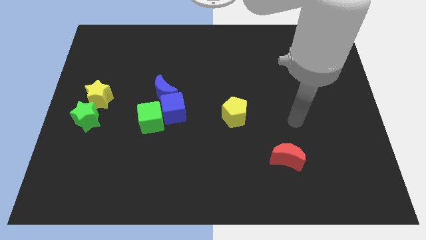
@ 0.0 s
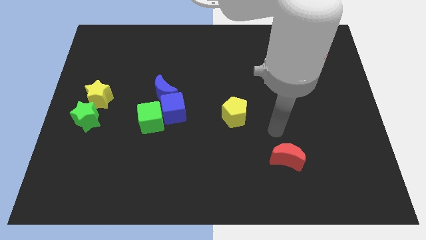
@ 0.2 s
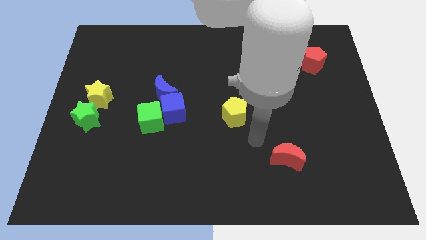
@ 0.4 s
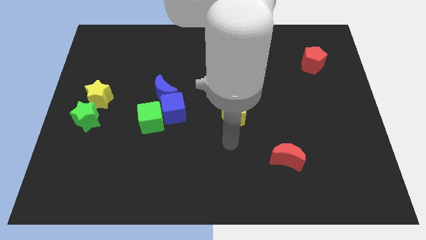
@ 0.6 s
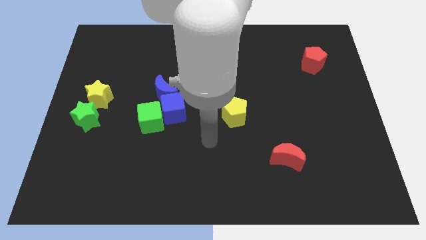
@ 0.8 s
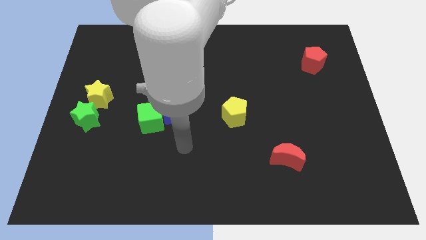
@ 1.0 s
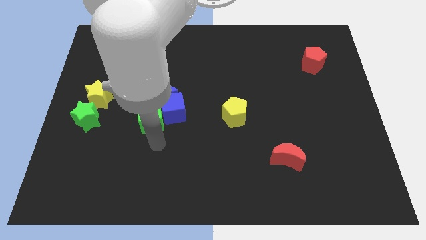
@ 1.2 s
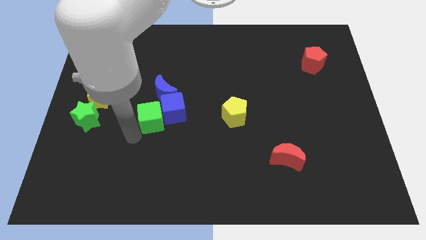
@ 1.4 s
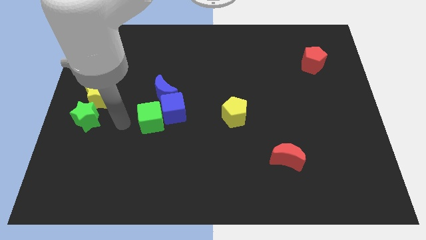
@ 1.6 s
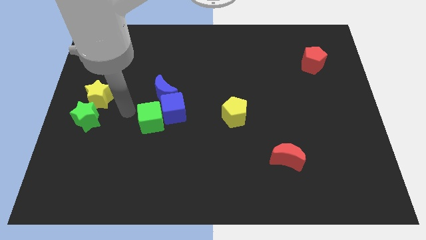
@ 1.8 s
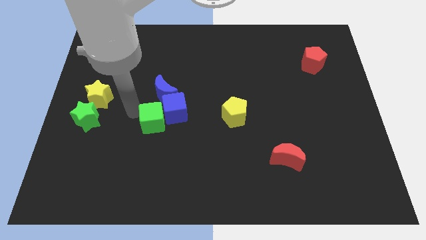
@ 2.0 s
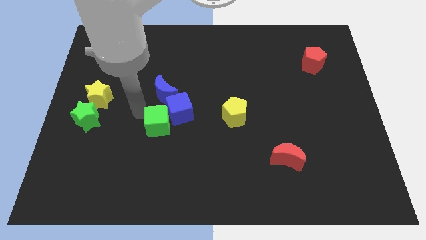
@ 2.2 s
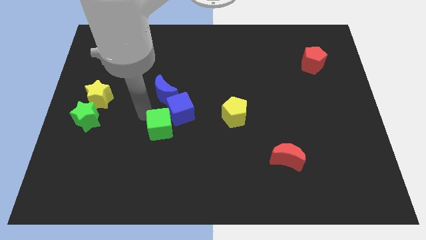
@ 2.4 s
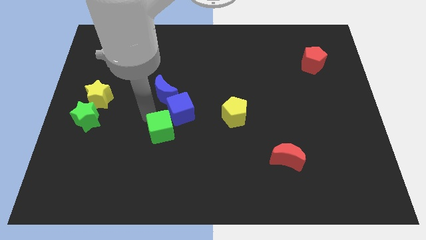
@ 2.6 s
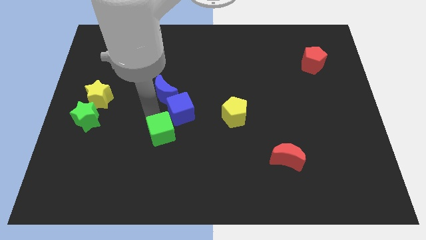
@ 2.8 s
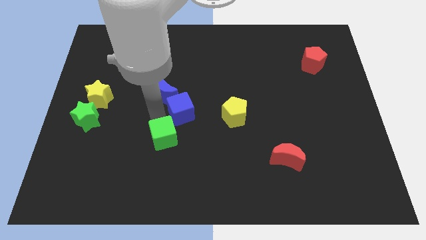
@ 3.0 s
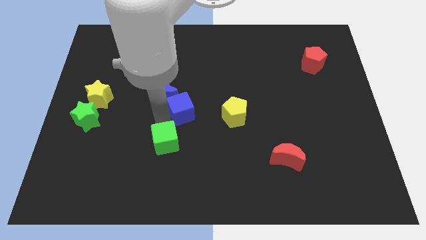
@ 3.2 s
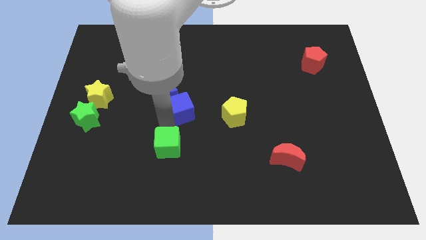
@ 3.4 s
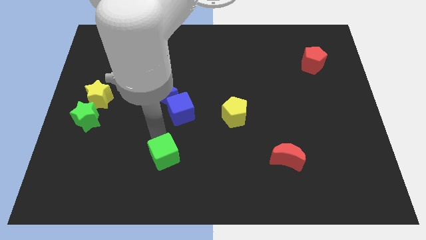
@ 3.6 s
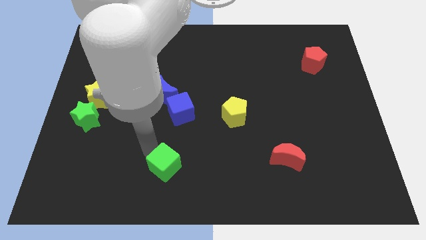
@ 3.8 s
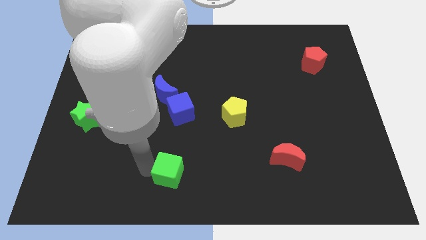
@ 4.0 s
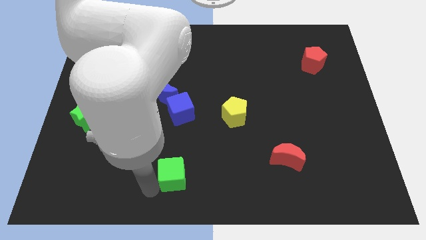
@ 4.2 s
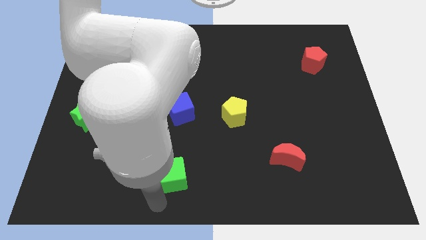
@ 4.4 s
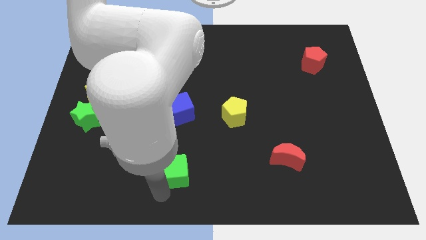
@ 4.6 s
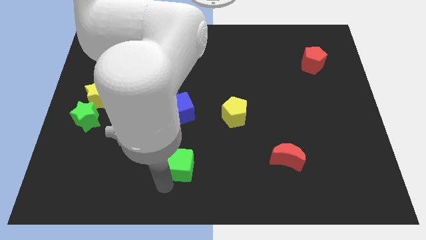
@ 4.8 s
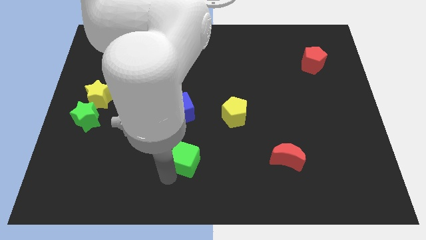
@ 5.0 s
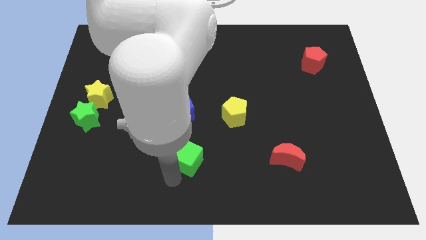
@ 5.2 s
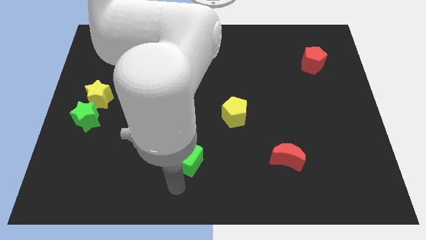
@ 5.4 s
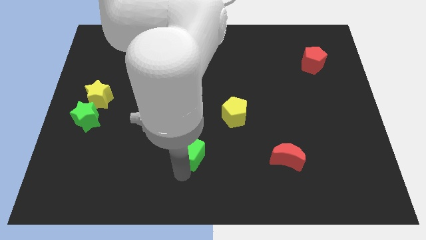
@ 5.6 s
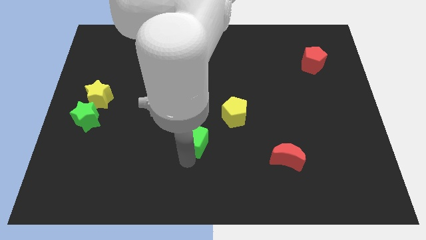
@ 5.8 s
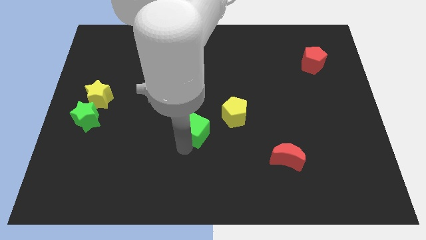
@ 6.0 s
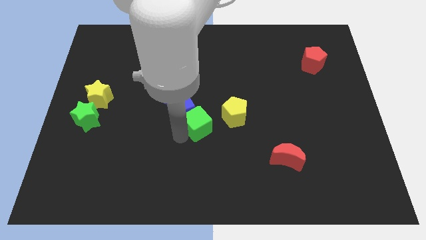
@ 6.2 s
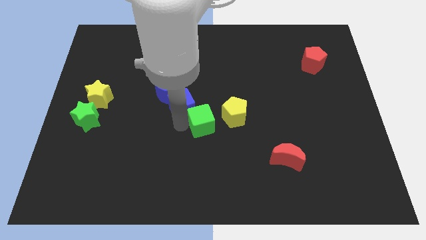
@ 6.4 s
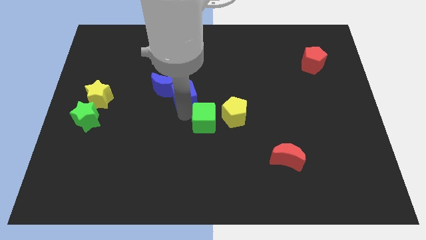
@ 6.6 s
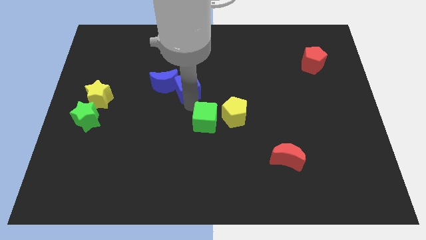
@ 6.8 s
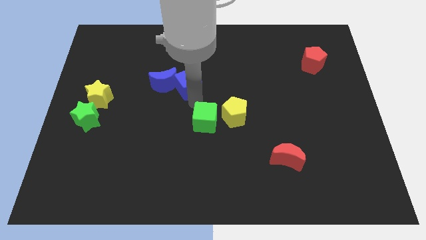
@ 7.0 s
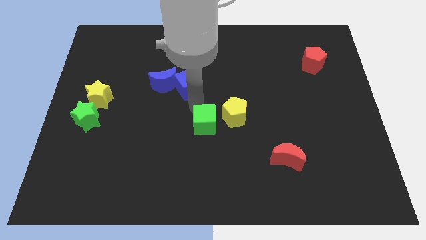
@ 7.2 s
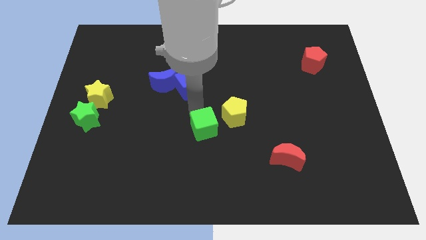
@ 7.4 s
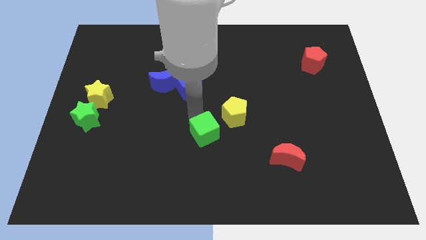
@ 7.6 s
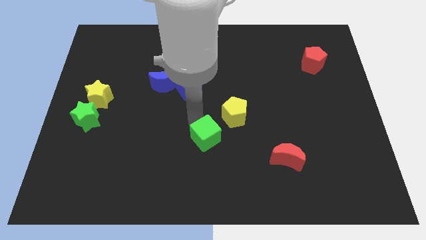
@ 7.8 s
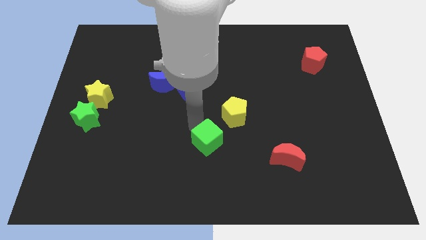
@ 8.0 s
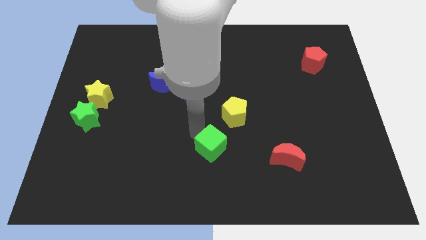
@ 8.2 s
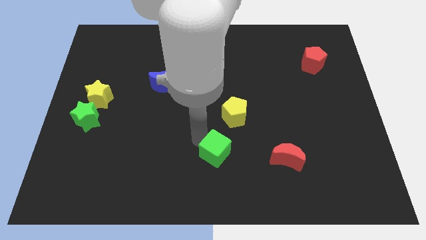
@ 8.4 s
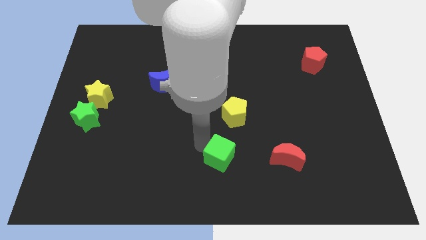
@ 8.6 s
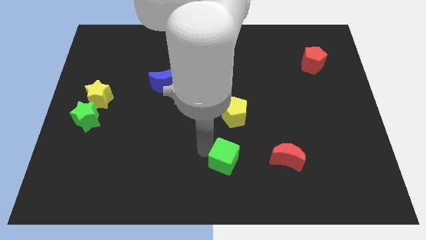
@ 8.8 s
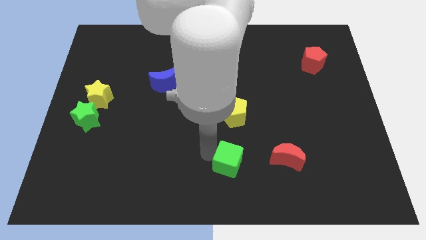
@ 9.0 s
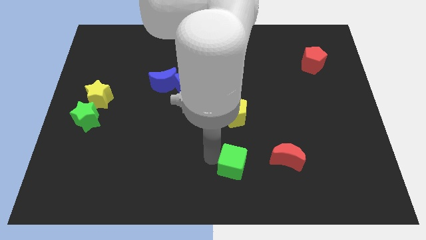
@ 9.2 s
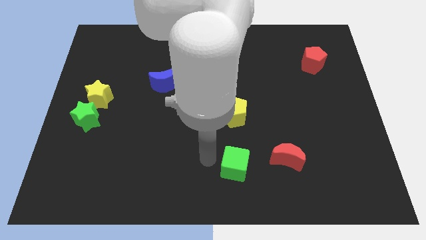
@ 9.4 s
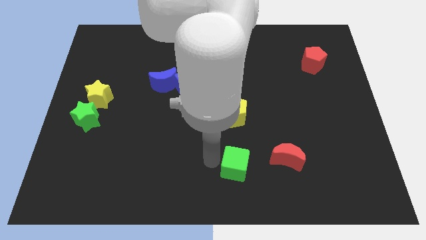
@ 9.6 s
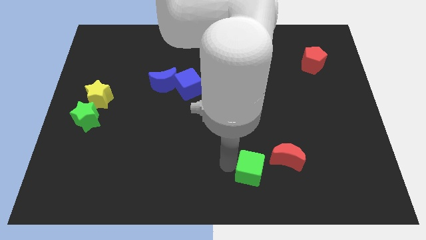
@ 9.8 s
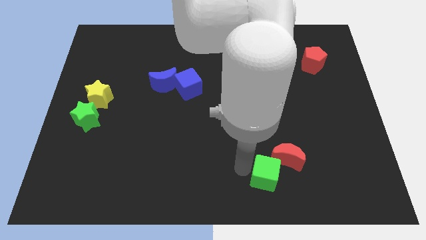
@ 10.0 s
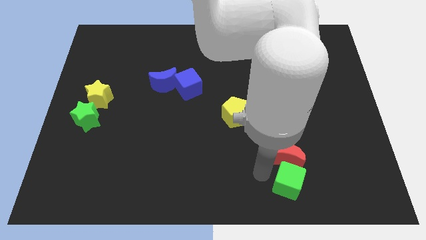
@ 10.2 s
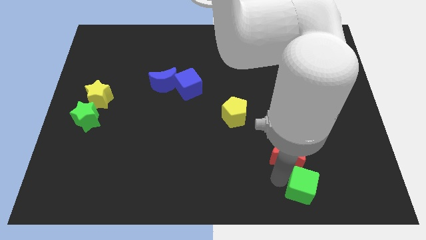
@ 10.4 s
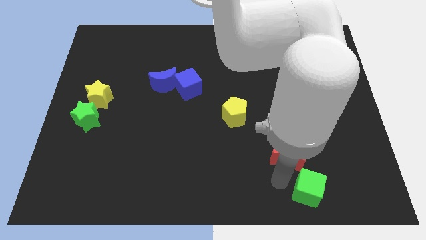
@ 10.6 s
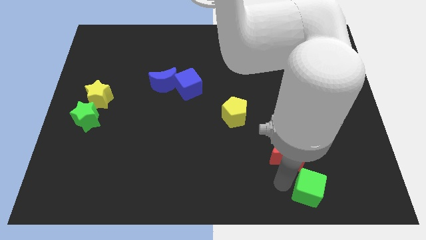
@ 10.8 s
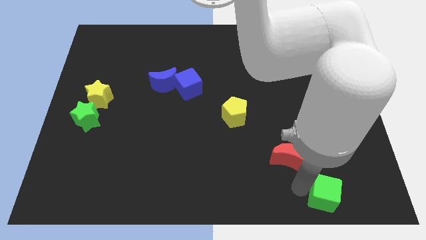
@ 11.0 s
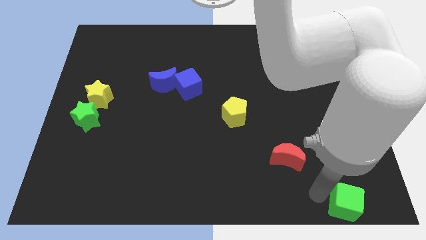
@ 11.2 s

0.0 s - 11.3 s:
push the green cube to the bottom right

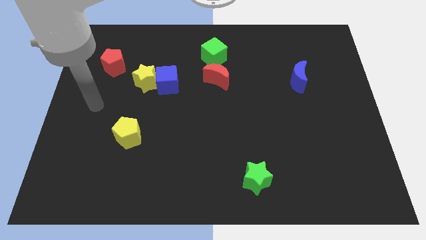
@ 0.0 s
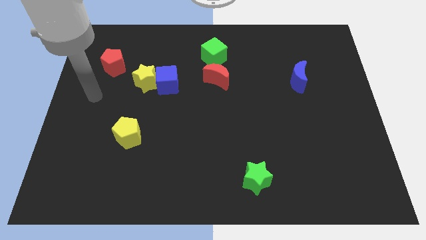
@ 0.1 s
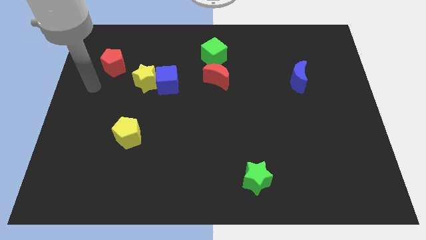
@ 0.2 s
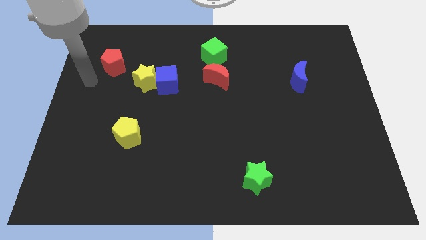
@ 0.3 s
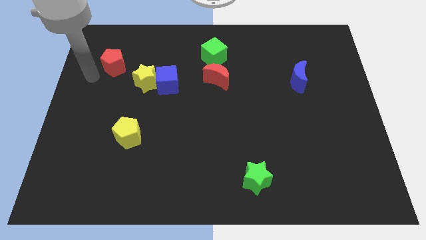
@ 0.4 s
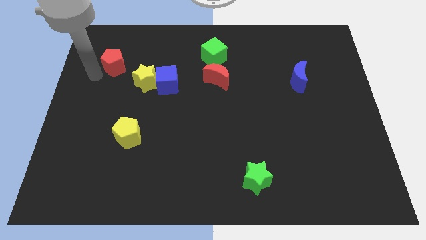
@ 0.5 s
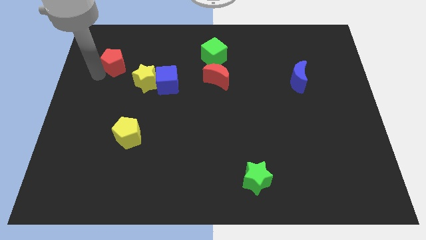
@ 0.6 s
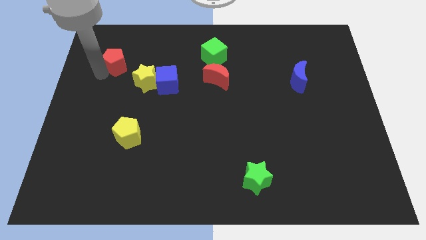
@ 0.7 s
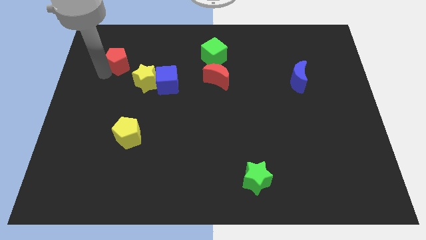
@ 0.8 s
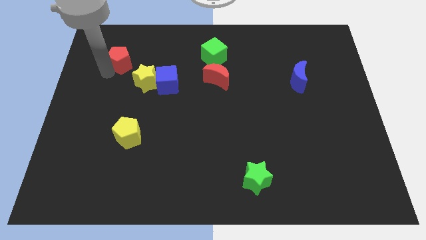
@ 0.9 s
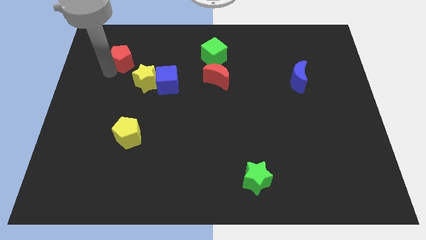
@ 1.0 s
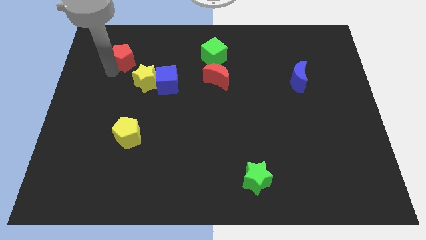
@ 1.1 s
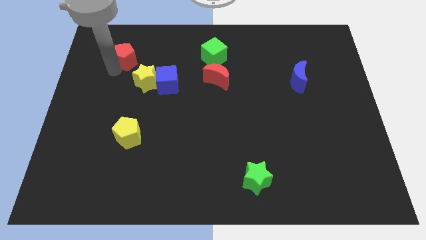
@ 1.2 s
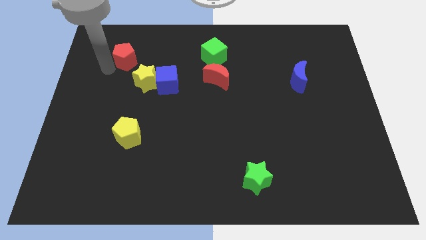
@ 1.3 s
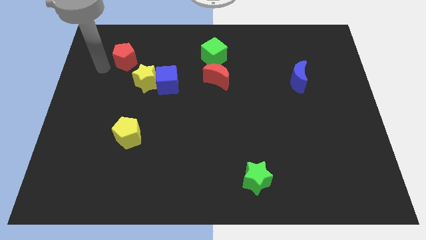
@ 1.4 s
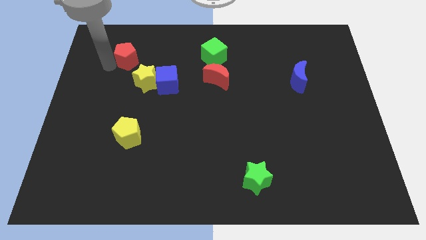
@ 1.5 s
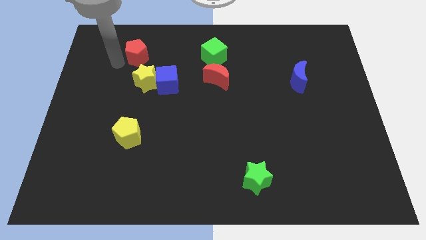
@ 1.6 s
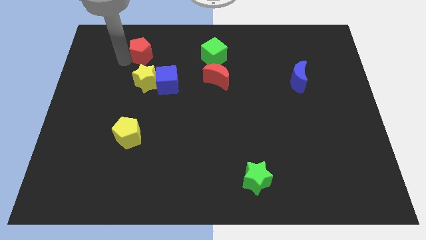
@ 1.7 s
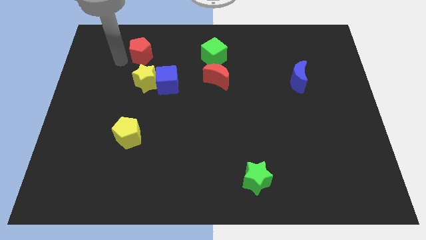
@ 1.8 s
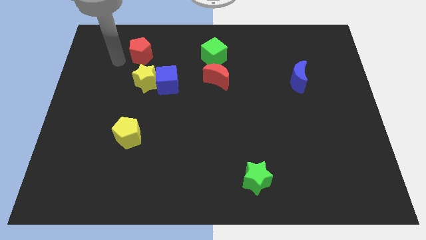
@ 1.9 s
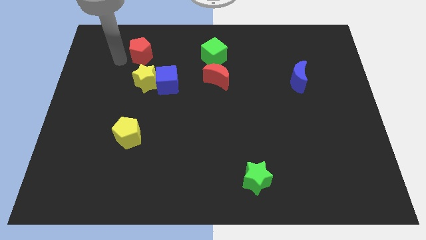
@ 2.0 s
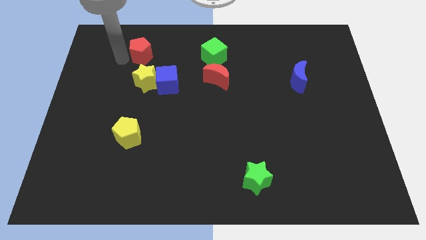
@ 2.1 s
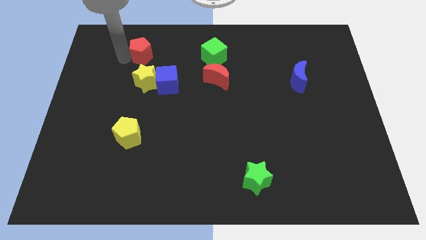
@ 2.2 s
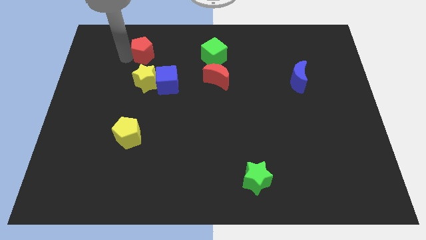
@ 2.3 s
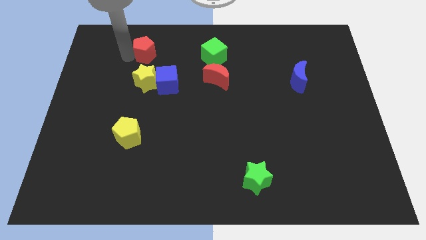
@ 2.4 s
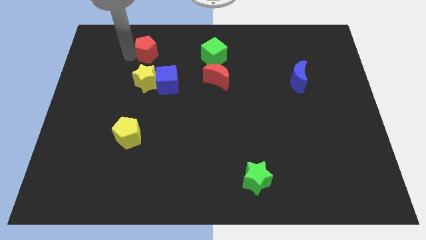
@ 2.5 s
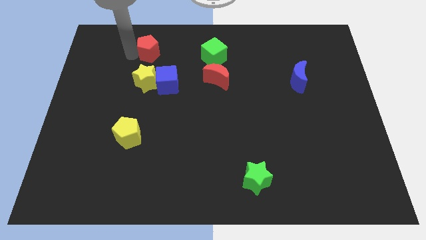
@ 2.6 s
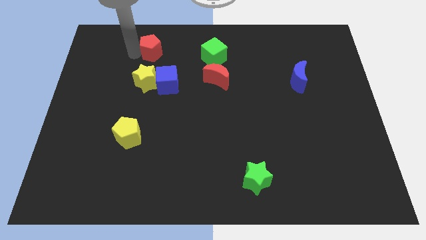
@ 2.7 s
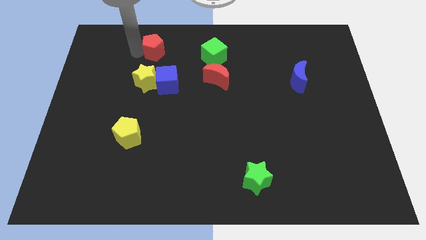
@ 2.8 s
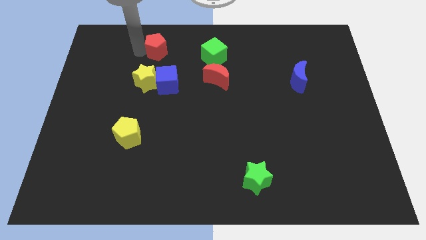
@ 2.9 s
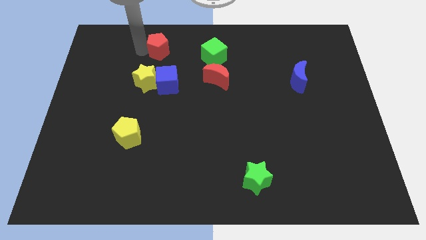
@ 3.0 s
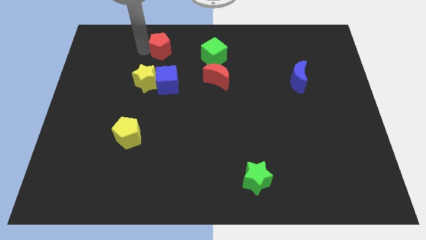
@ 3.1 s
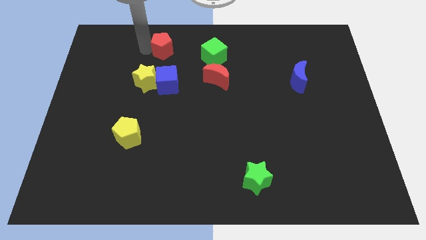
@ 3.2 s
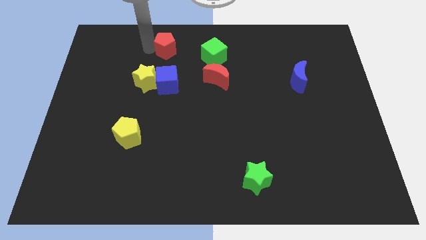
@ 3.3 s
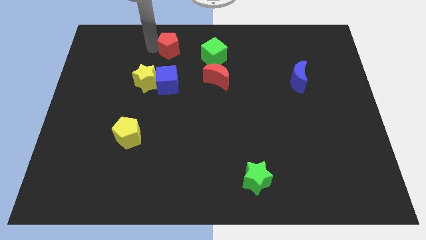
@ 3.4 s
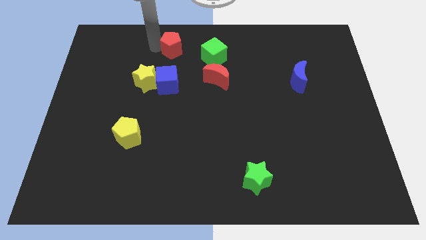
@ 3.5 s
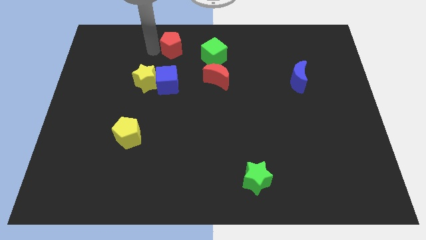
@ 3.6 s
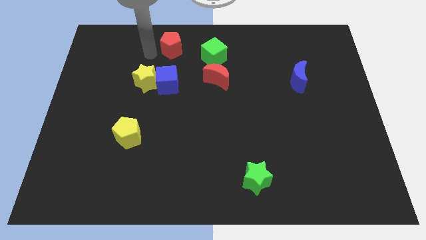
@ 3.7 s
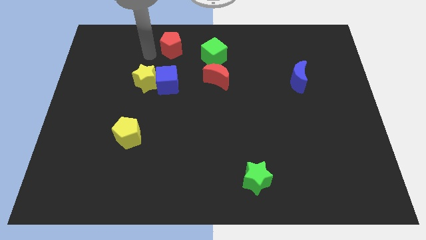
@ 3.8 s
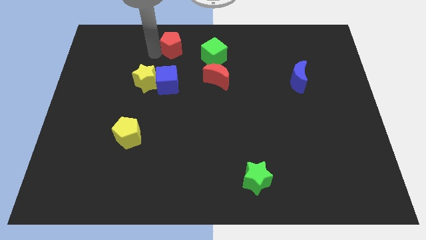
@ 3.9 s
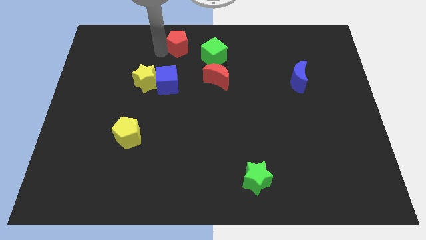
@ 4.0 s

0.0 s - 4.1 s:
put the red pentagon to the towards your base
